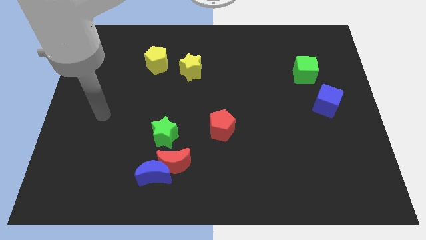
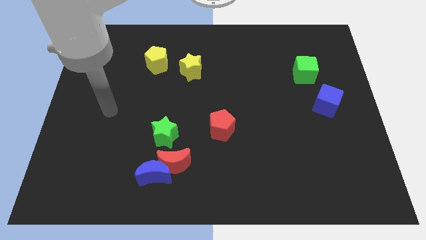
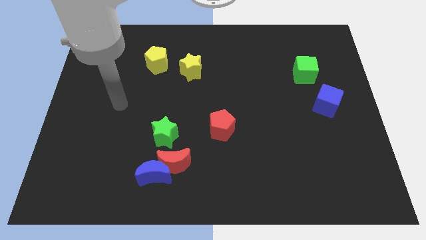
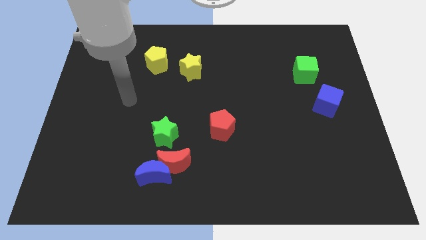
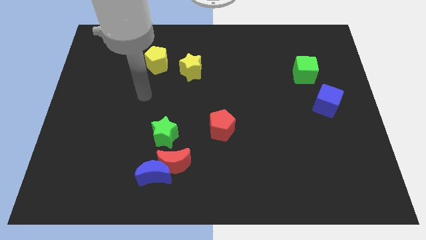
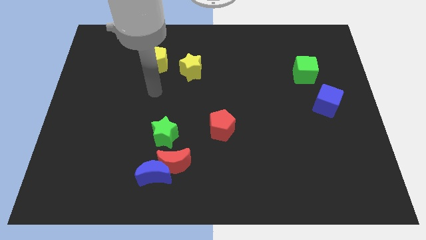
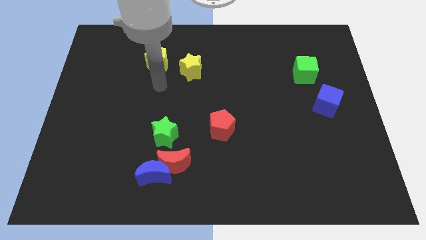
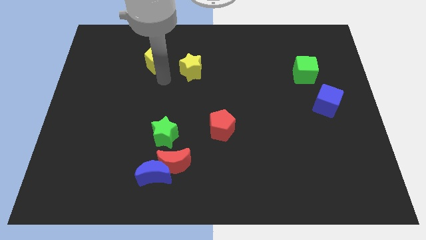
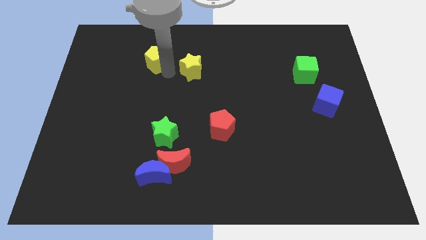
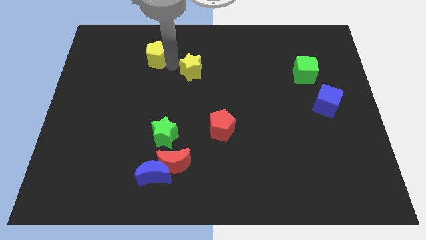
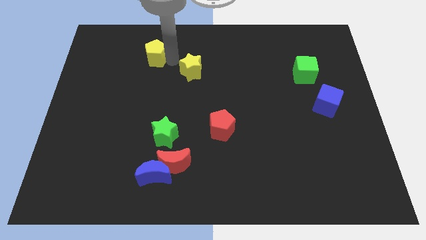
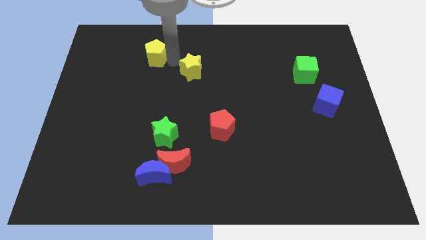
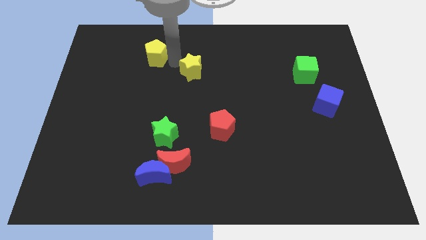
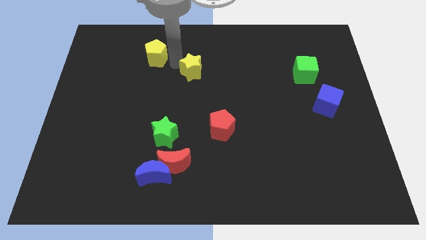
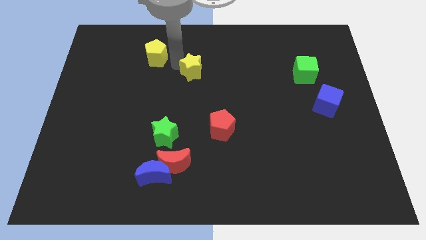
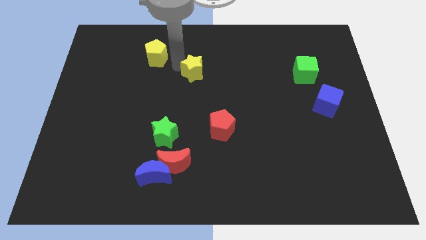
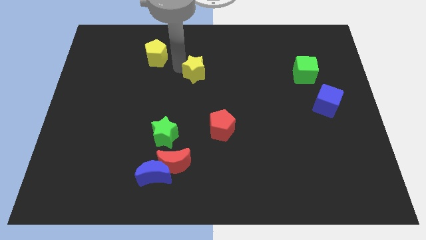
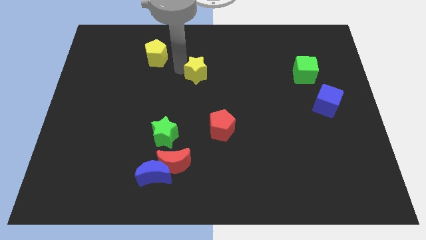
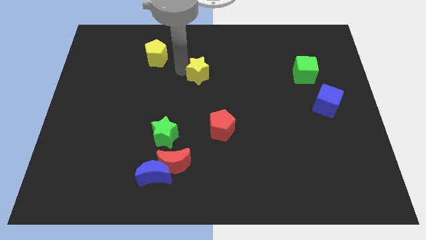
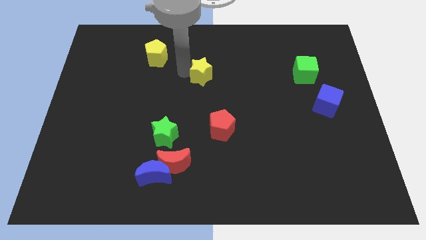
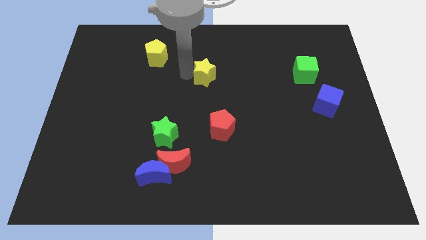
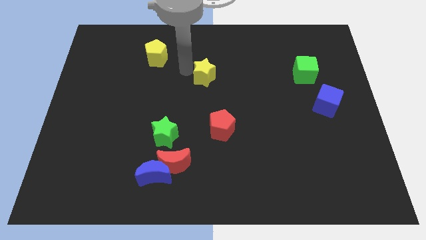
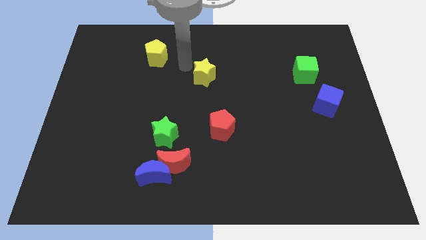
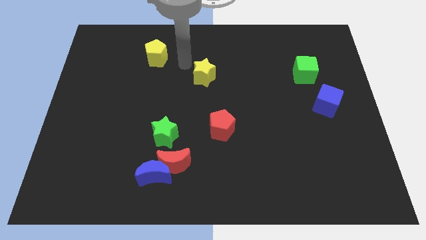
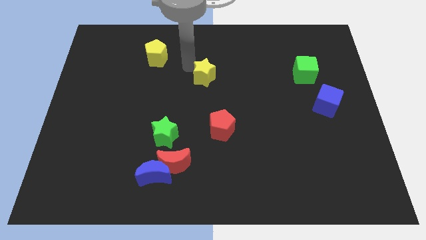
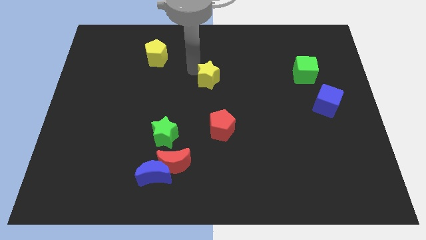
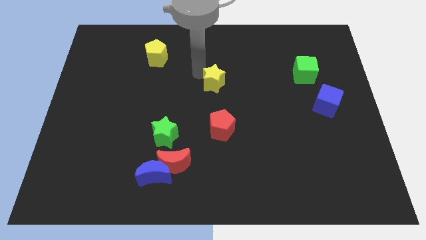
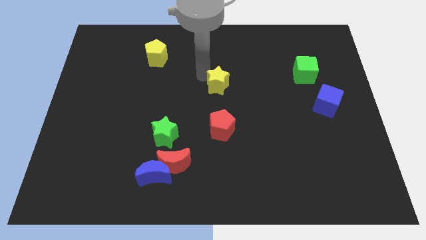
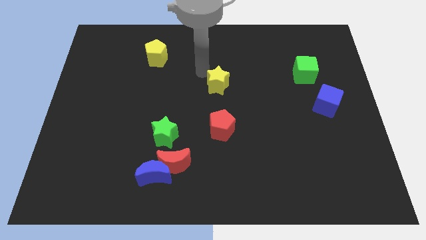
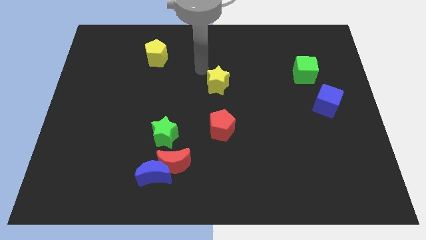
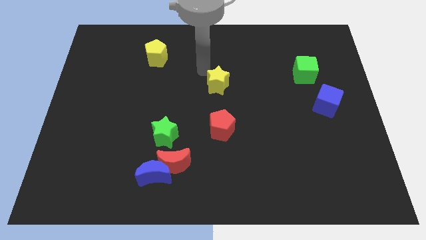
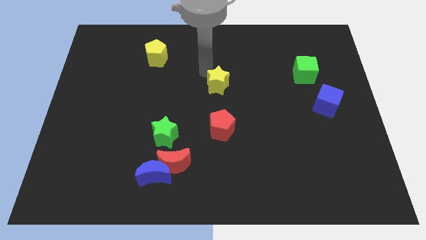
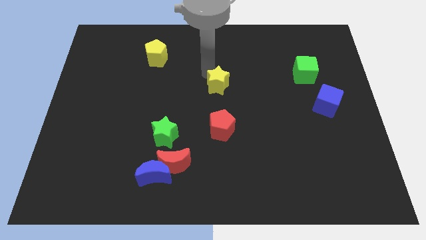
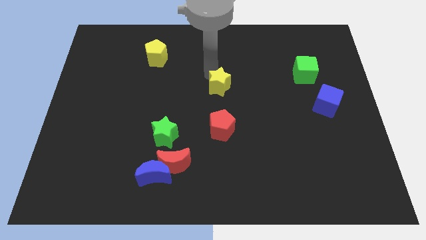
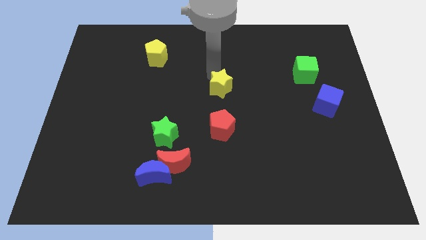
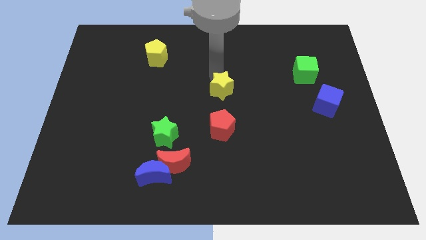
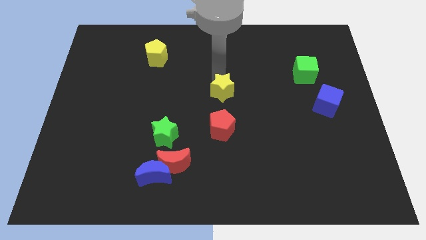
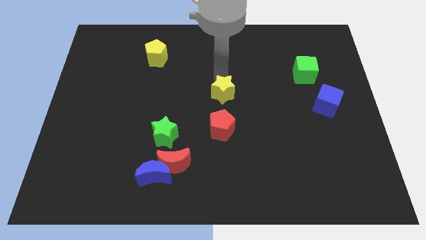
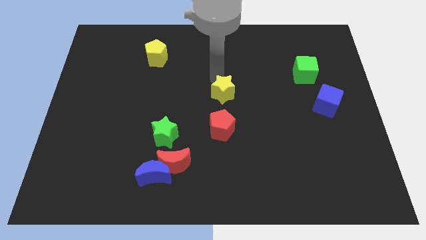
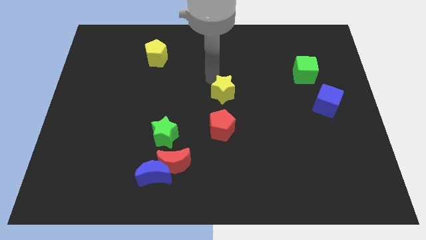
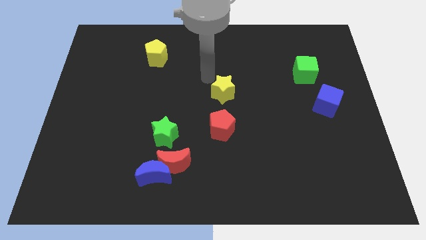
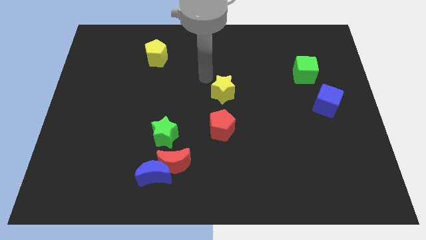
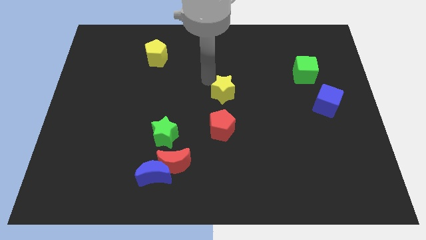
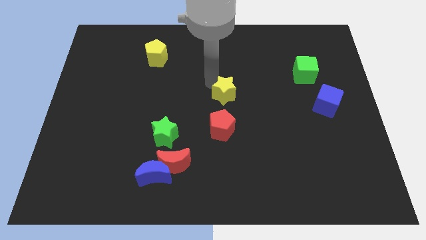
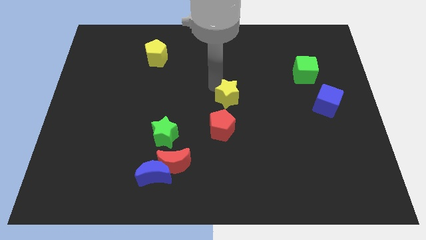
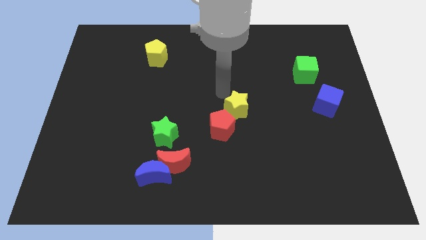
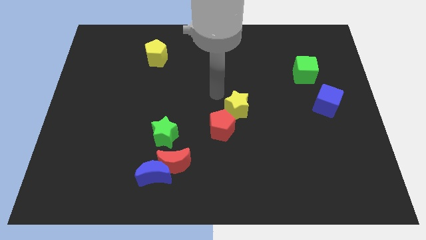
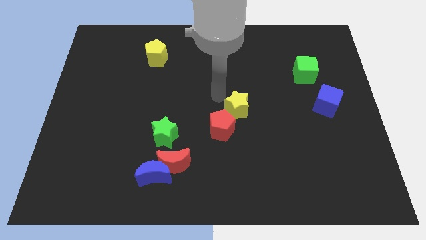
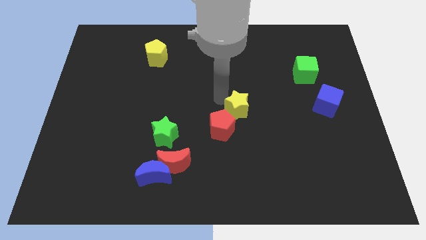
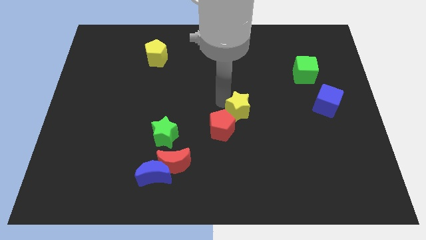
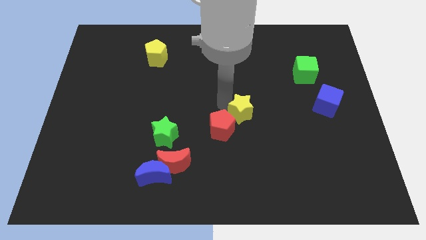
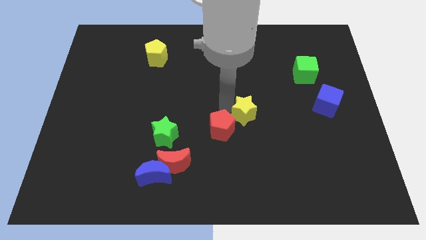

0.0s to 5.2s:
put the yellow star just right of the red pentagon

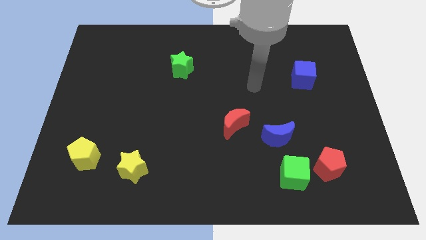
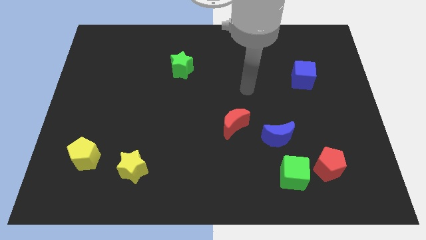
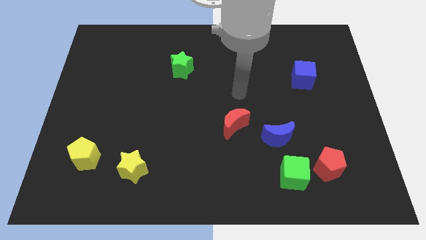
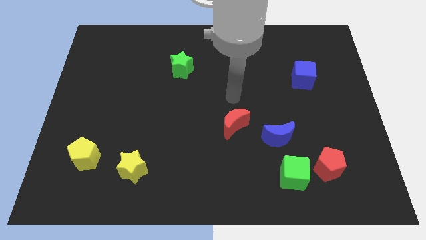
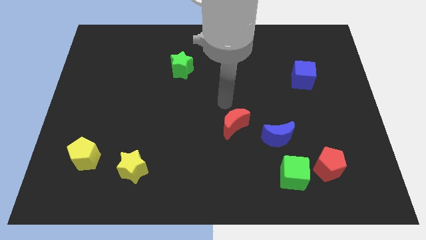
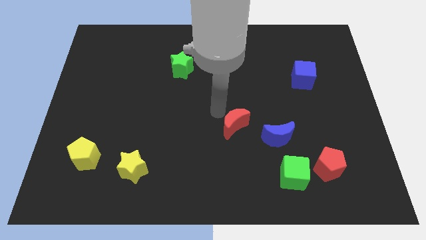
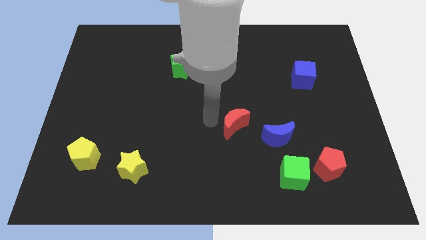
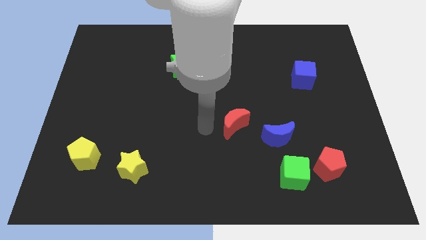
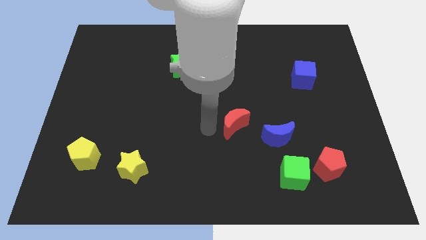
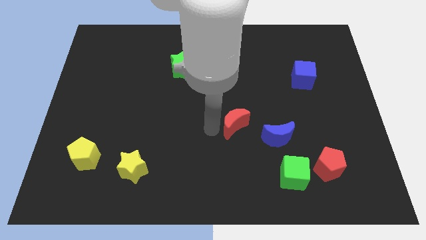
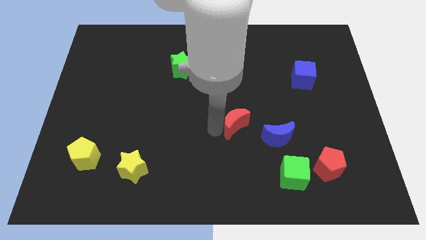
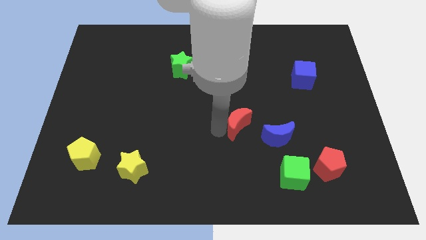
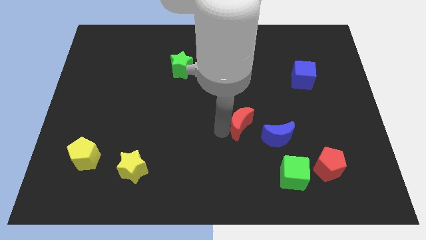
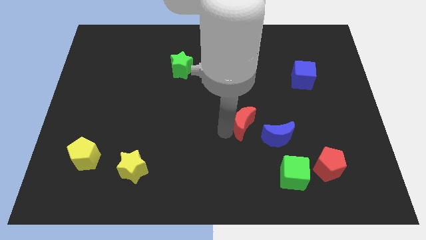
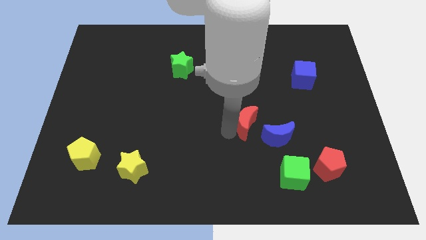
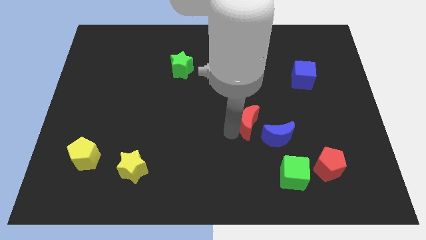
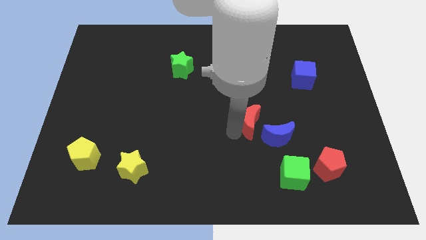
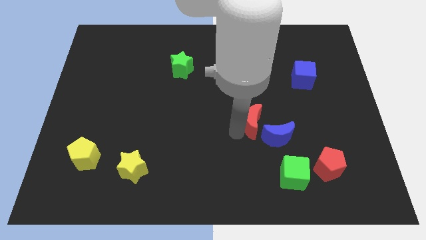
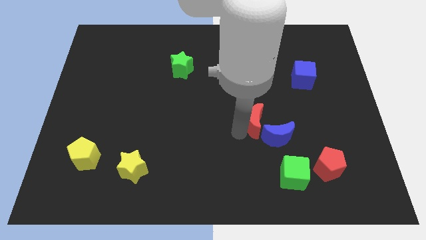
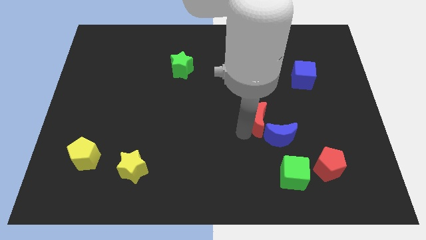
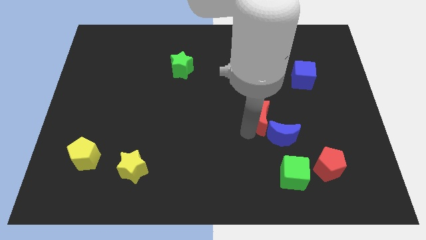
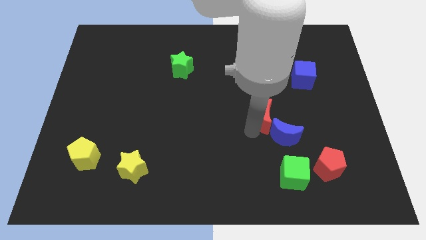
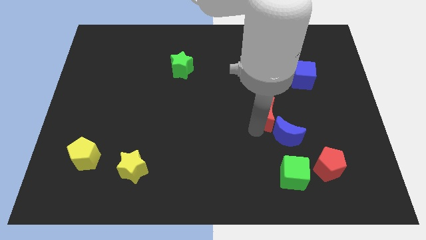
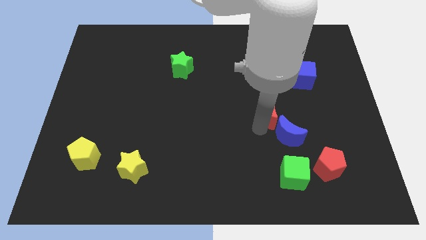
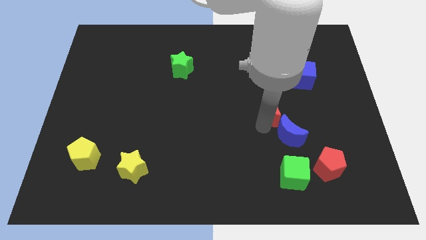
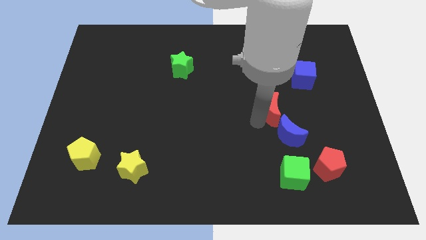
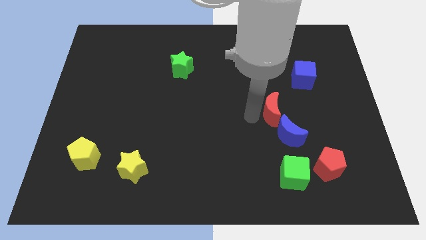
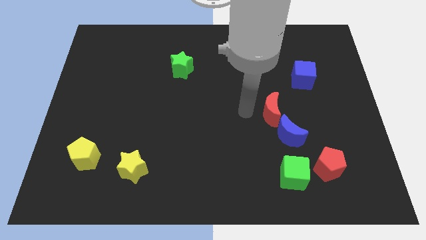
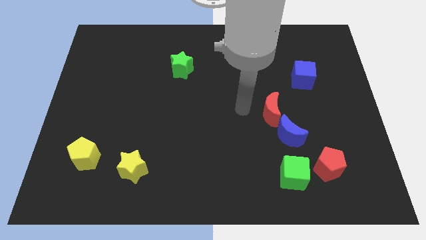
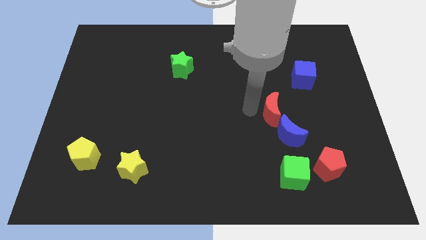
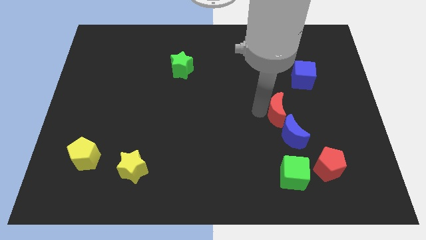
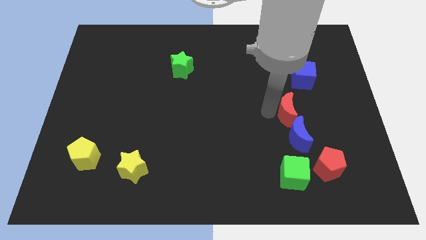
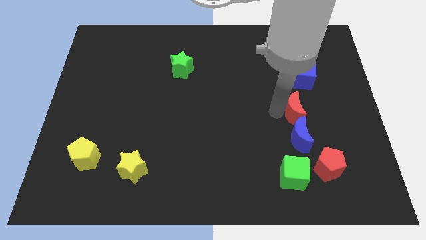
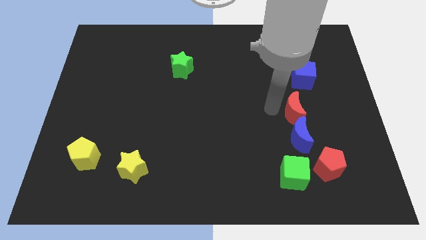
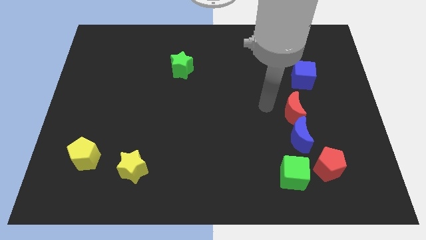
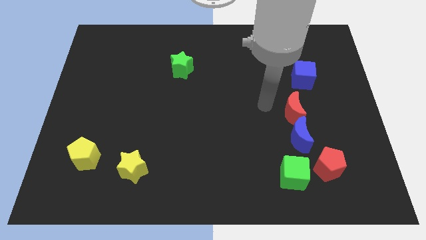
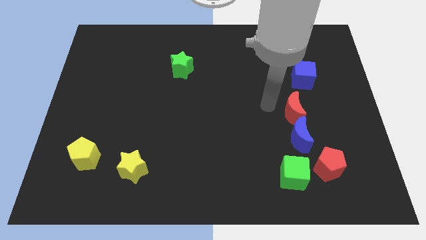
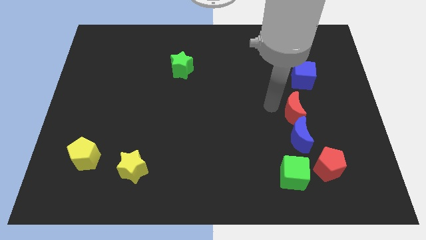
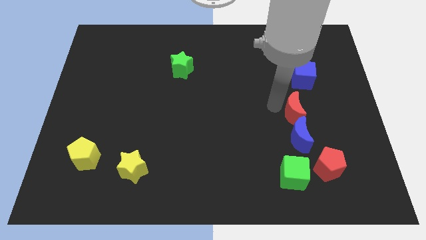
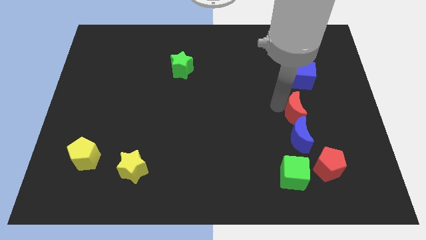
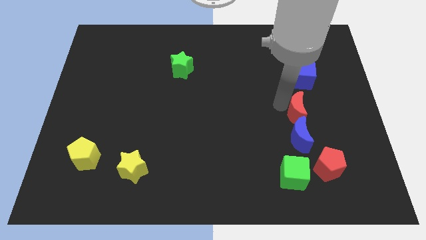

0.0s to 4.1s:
push the red moon to the top right of the blue moon
